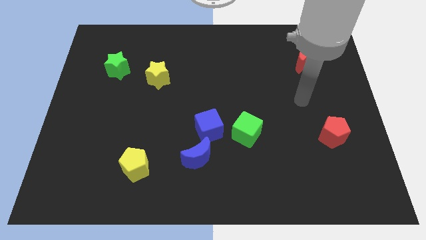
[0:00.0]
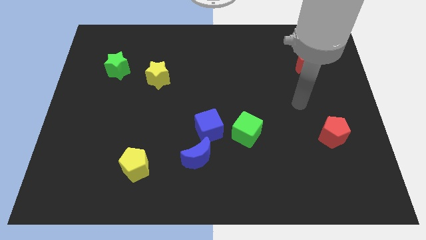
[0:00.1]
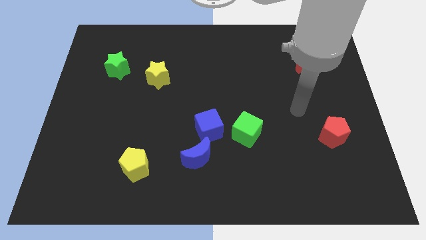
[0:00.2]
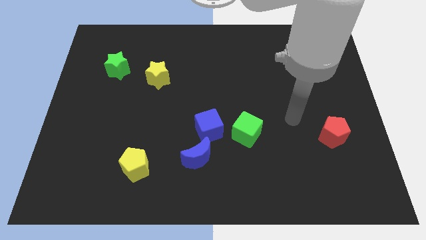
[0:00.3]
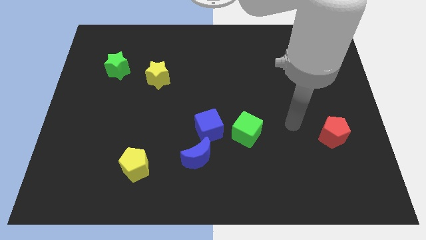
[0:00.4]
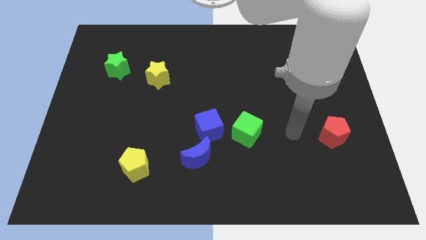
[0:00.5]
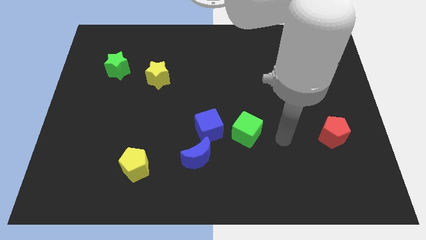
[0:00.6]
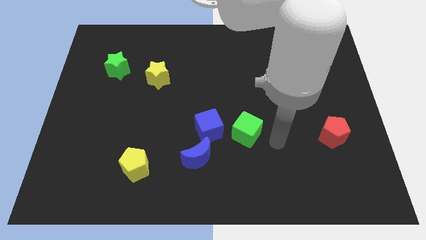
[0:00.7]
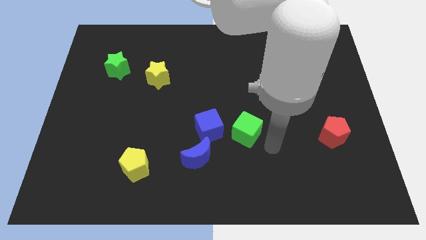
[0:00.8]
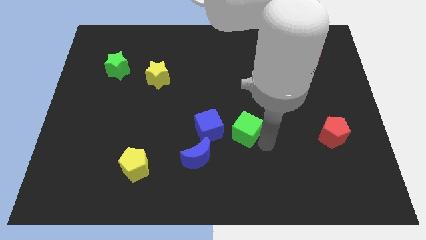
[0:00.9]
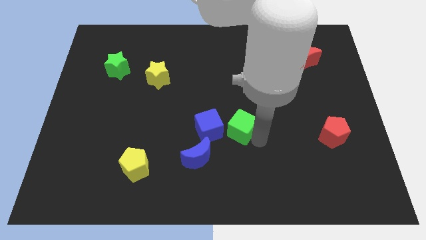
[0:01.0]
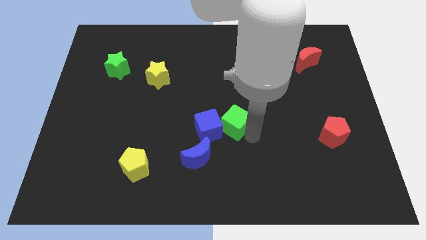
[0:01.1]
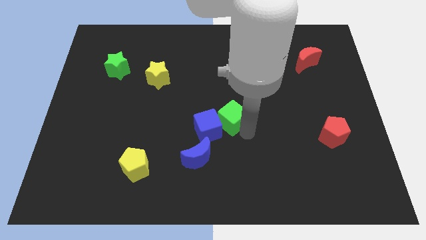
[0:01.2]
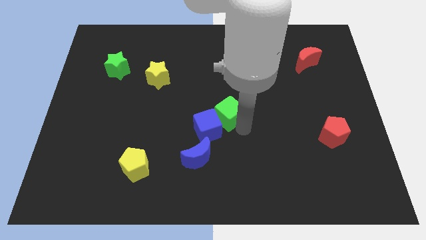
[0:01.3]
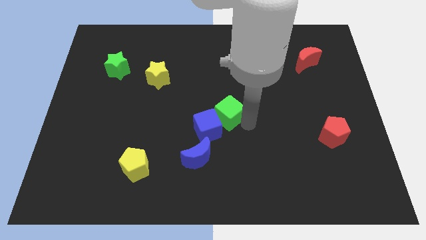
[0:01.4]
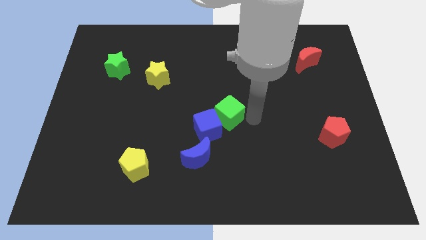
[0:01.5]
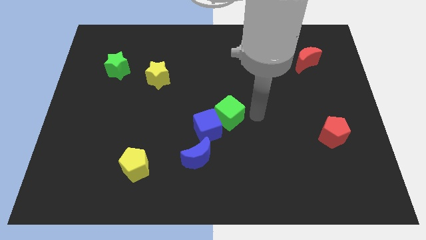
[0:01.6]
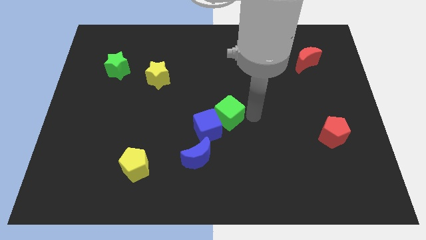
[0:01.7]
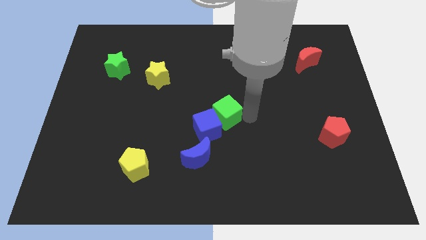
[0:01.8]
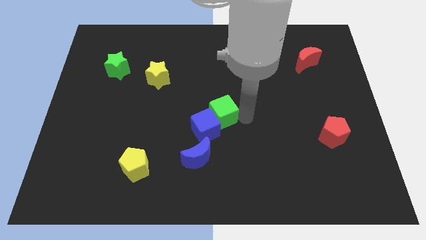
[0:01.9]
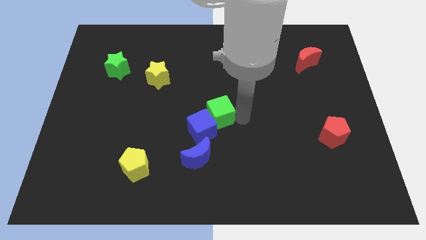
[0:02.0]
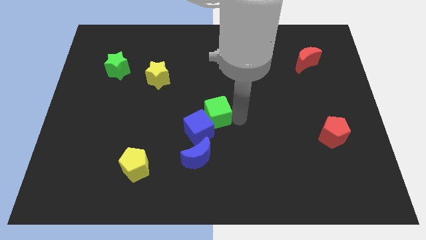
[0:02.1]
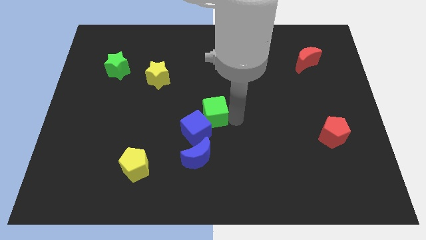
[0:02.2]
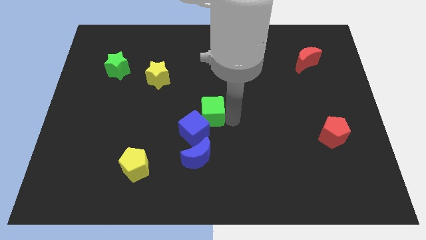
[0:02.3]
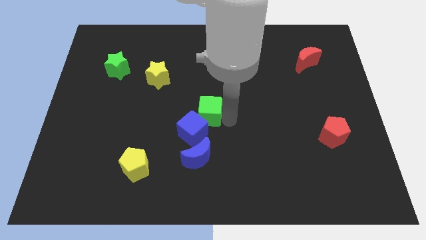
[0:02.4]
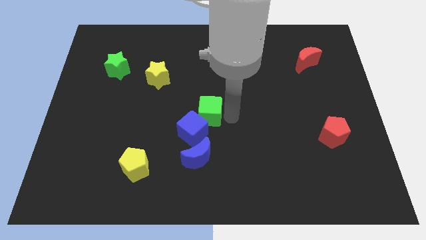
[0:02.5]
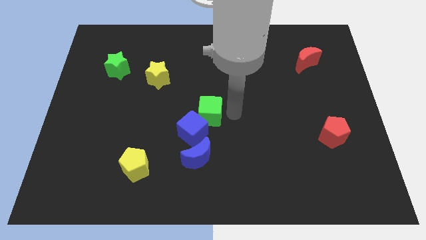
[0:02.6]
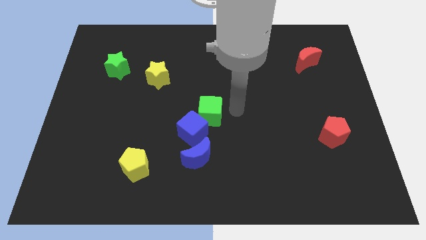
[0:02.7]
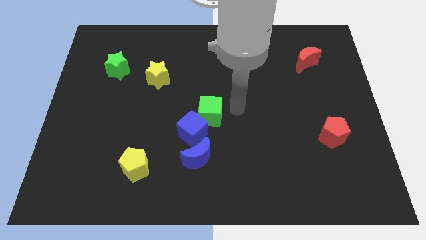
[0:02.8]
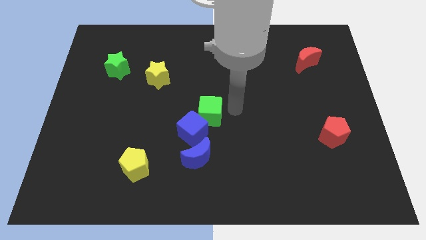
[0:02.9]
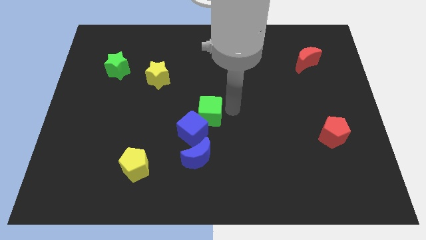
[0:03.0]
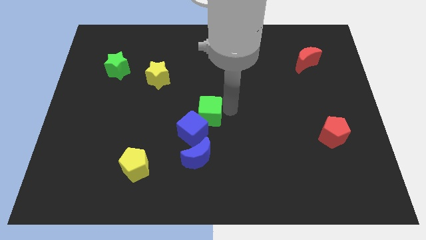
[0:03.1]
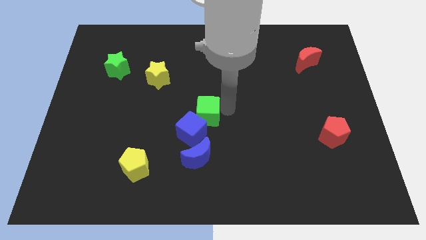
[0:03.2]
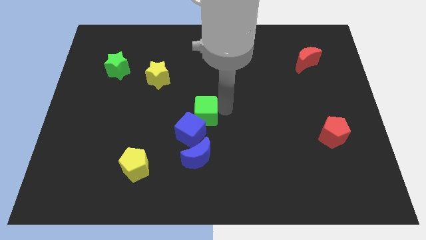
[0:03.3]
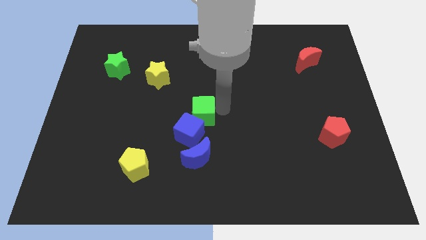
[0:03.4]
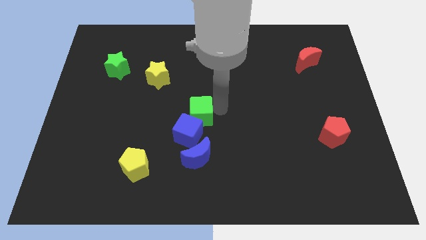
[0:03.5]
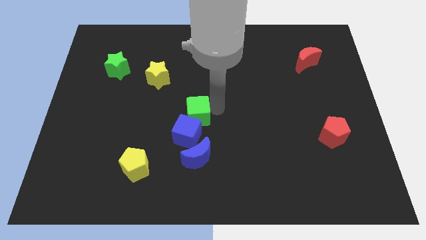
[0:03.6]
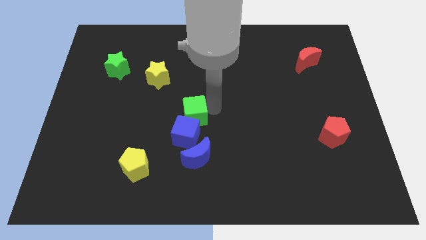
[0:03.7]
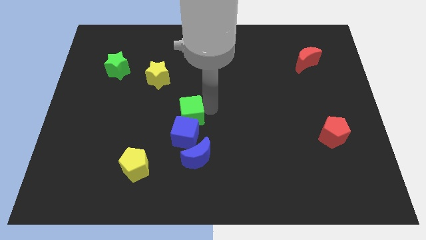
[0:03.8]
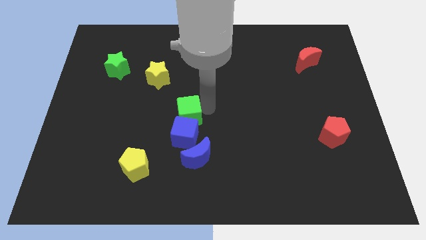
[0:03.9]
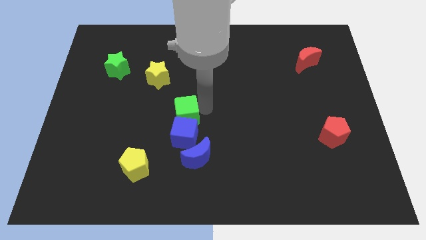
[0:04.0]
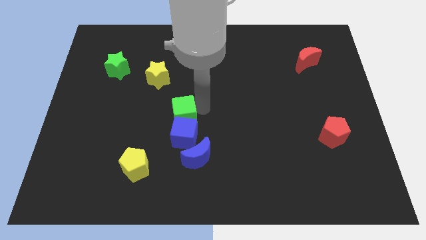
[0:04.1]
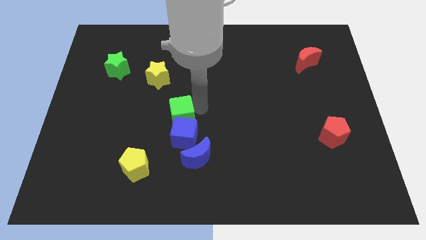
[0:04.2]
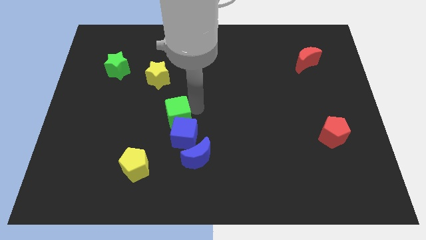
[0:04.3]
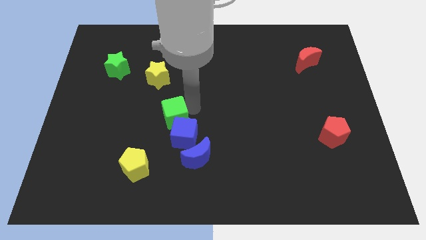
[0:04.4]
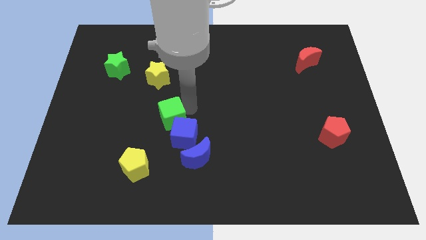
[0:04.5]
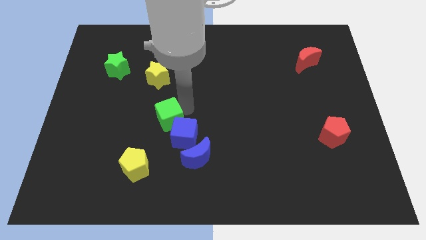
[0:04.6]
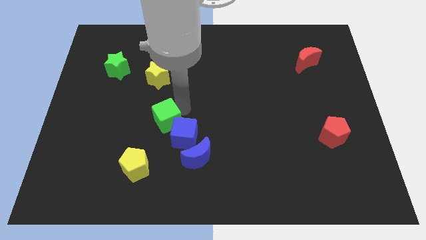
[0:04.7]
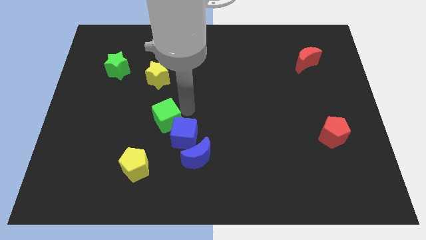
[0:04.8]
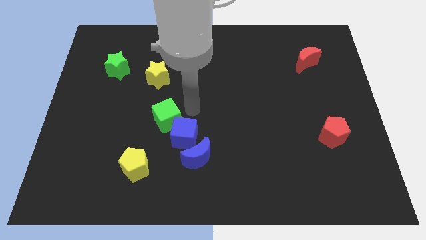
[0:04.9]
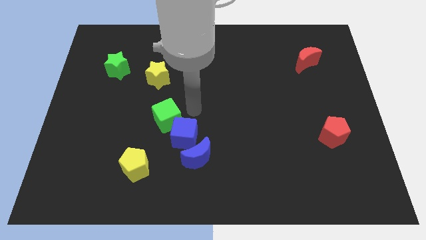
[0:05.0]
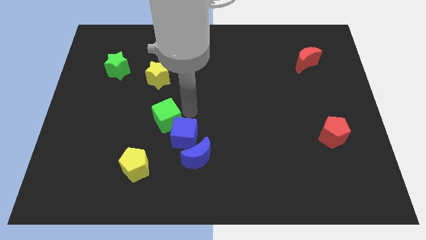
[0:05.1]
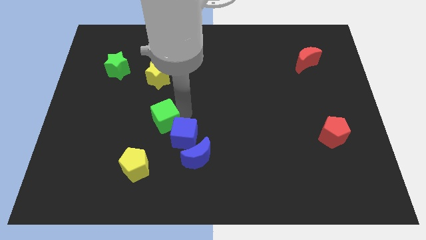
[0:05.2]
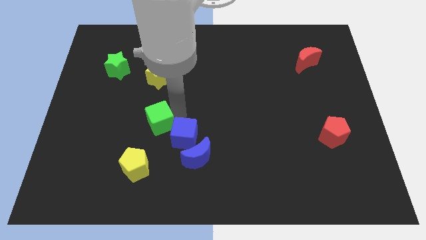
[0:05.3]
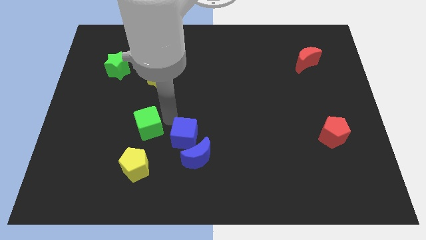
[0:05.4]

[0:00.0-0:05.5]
move the green cube to the left

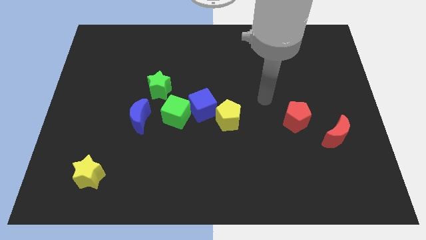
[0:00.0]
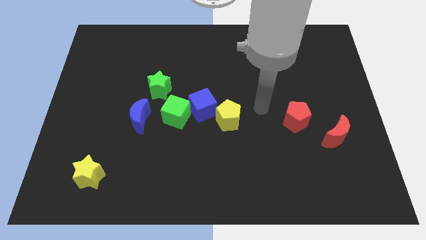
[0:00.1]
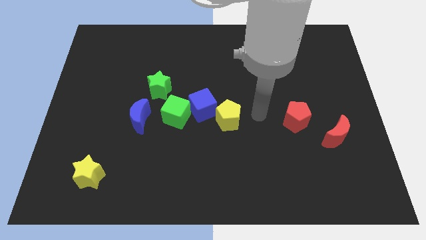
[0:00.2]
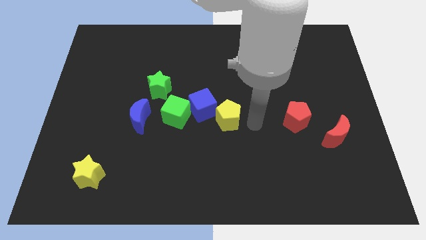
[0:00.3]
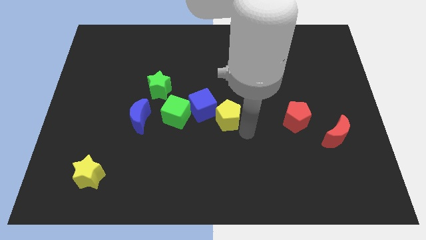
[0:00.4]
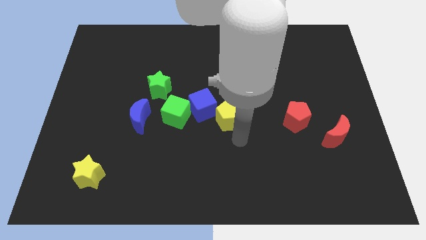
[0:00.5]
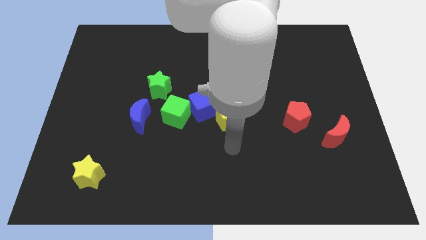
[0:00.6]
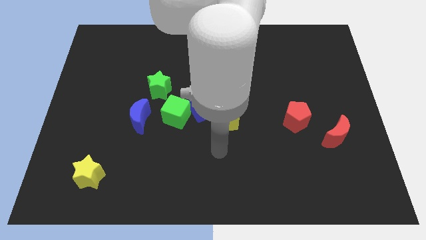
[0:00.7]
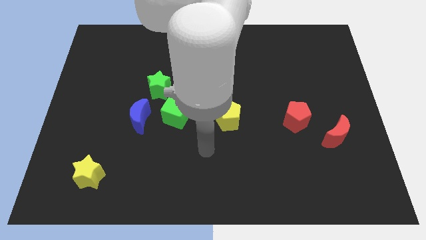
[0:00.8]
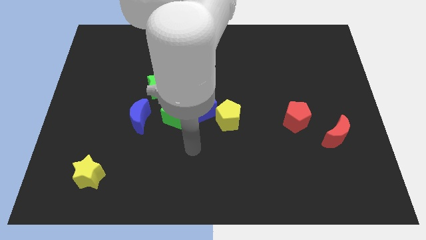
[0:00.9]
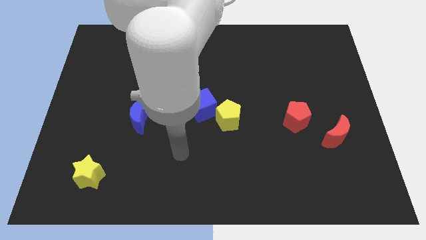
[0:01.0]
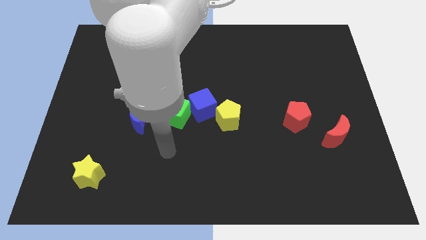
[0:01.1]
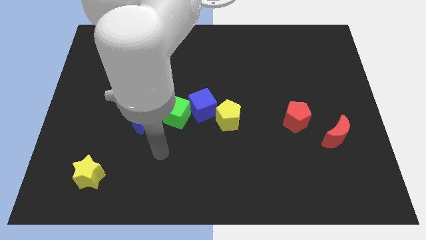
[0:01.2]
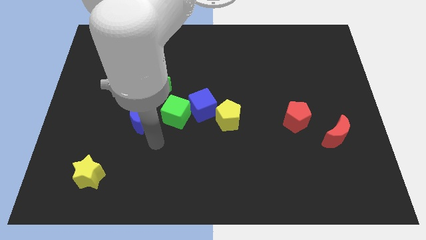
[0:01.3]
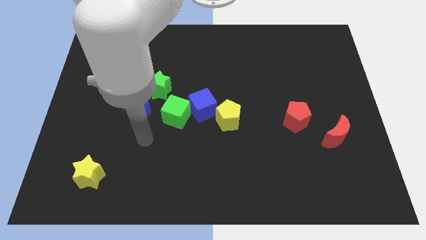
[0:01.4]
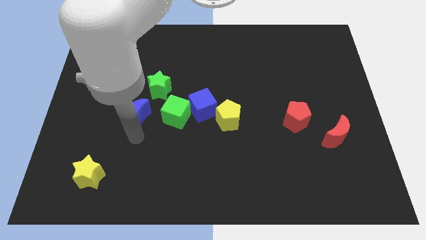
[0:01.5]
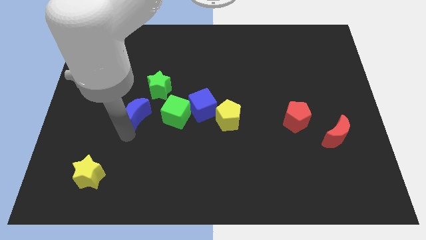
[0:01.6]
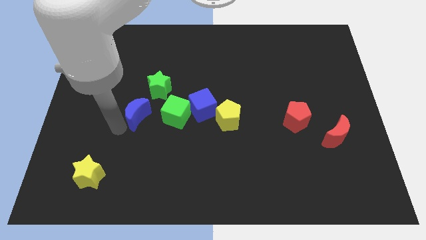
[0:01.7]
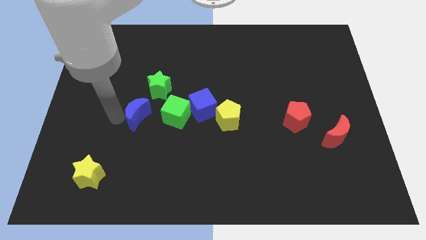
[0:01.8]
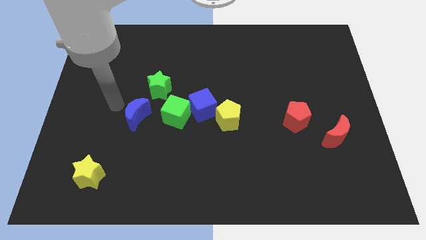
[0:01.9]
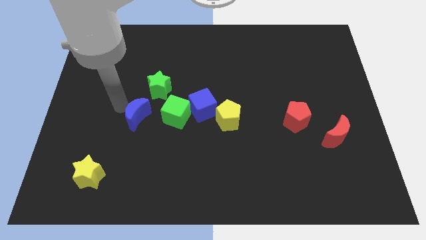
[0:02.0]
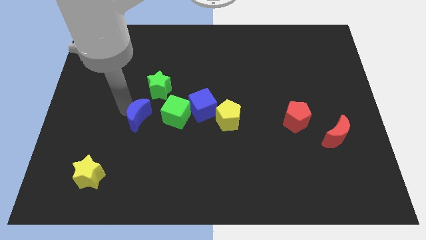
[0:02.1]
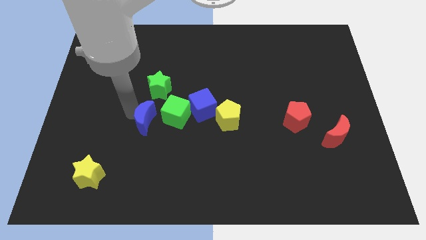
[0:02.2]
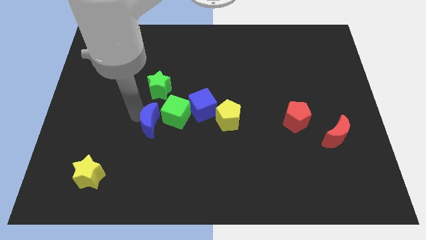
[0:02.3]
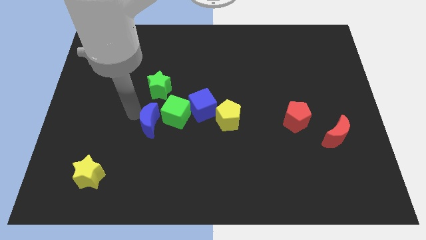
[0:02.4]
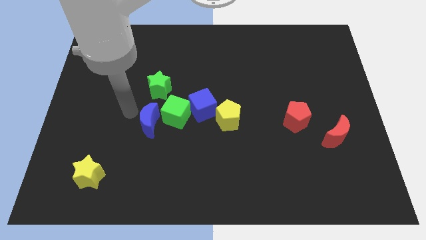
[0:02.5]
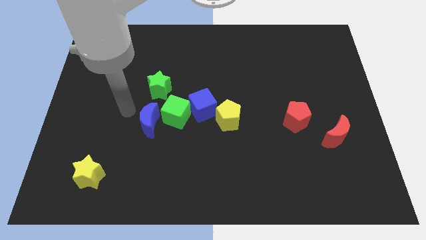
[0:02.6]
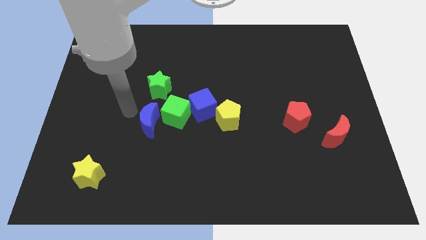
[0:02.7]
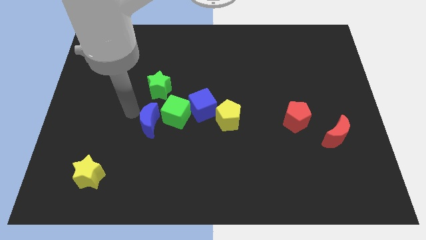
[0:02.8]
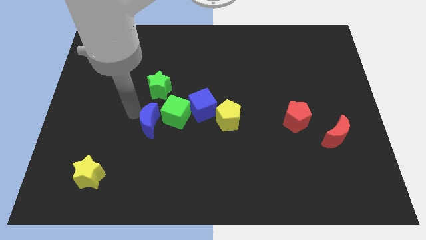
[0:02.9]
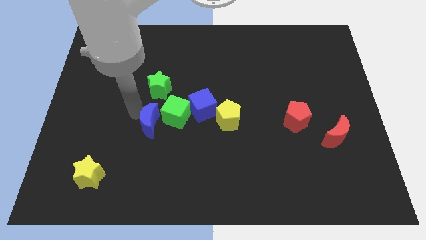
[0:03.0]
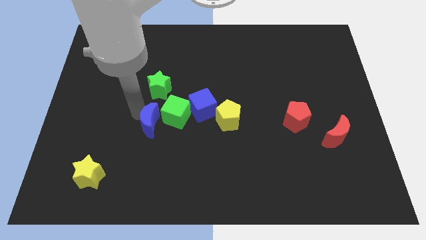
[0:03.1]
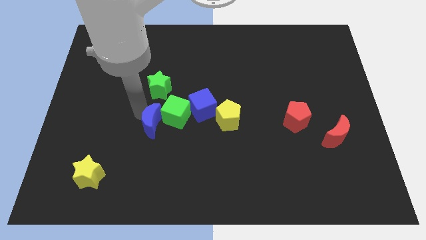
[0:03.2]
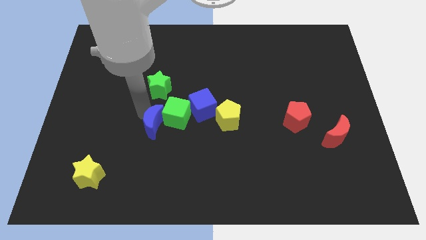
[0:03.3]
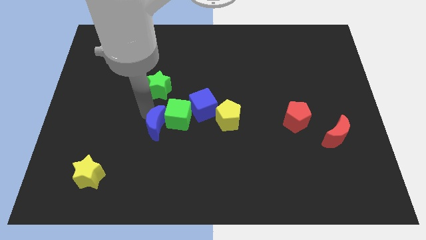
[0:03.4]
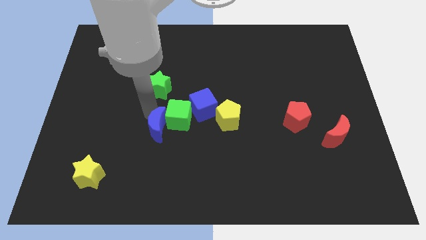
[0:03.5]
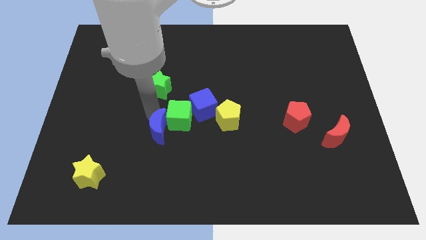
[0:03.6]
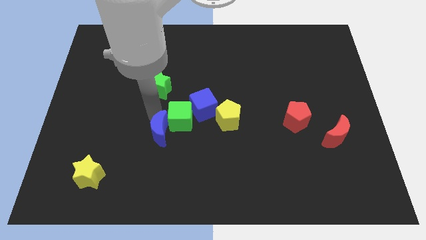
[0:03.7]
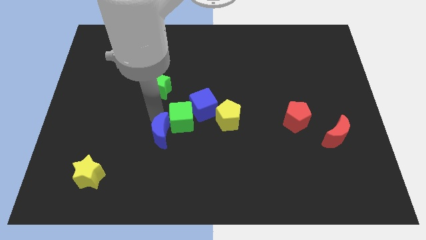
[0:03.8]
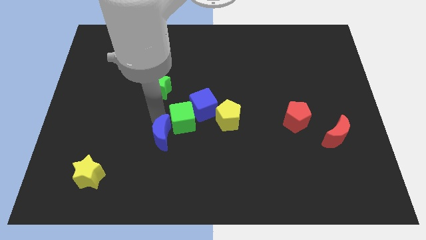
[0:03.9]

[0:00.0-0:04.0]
slightly move the blue moon downwards and right diagonally
